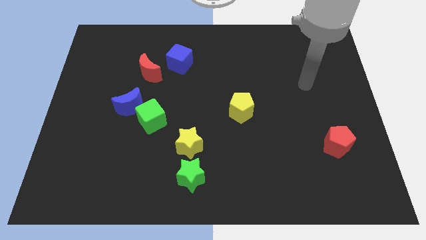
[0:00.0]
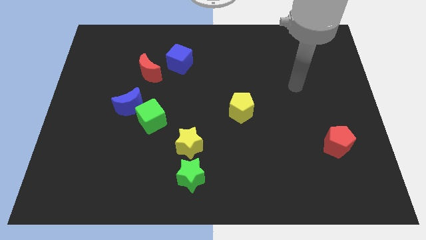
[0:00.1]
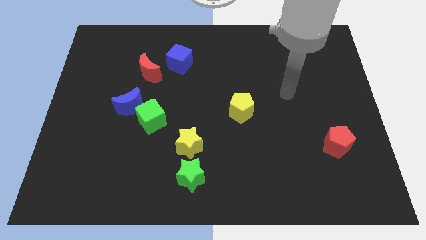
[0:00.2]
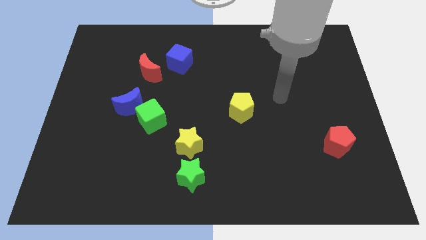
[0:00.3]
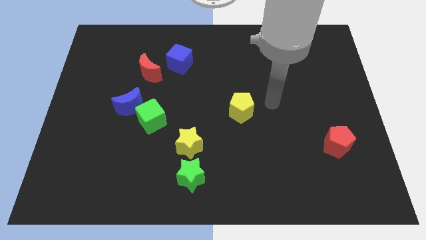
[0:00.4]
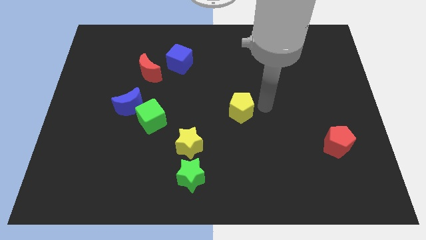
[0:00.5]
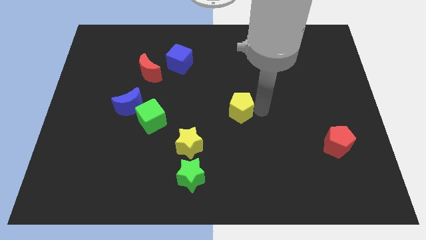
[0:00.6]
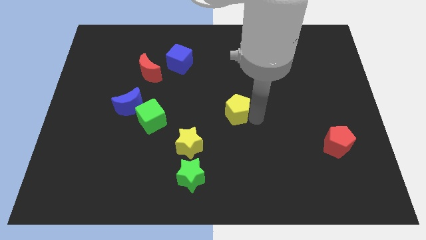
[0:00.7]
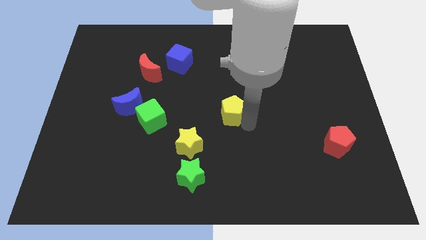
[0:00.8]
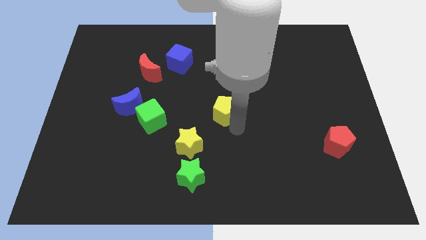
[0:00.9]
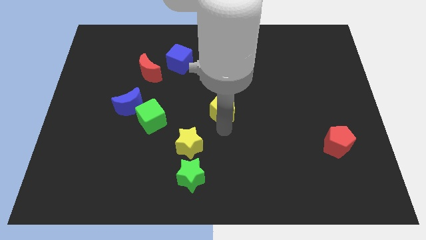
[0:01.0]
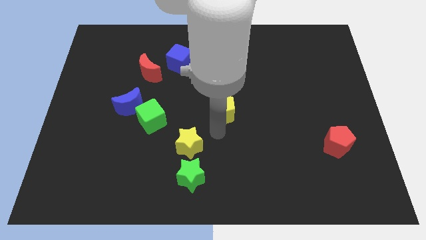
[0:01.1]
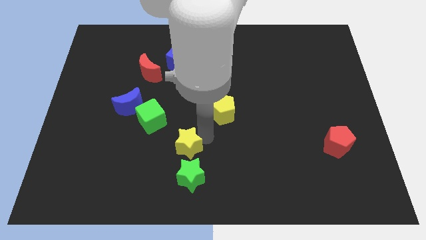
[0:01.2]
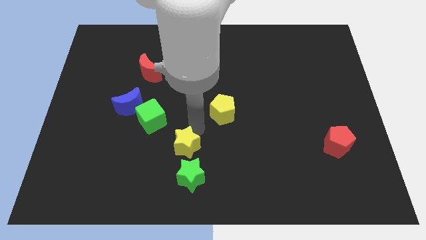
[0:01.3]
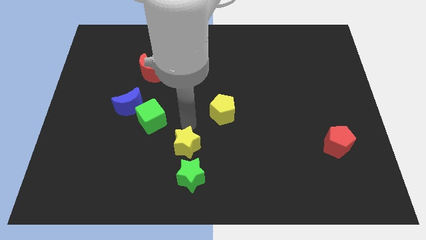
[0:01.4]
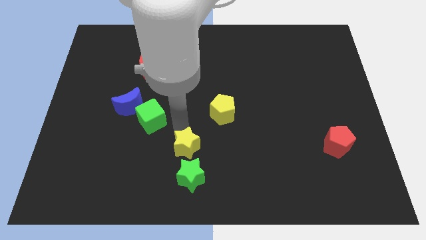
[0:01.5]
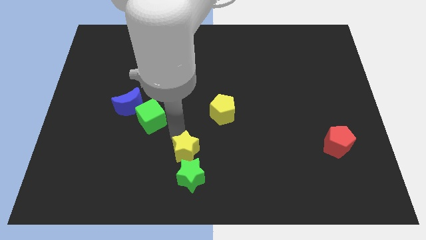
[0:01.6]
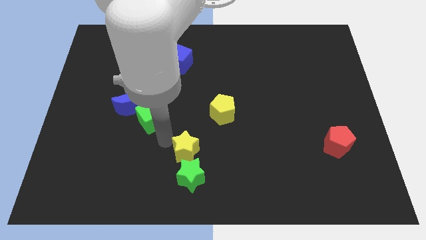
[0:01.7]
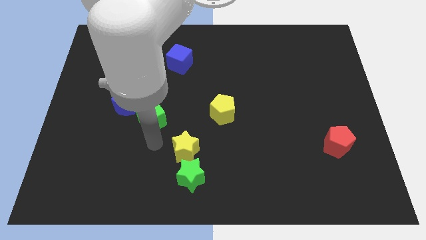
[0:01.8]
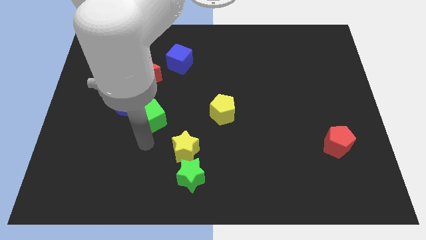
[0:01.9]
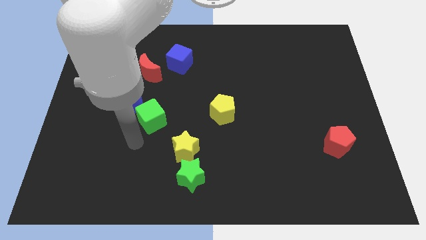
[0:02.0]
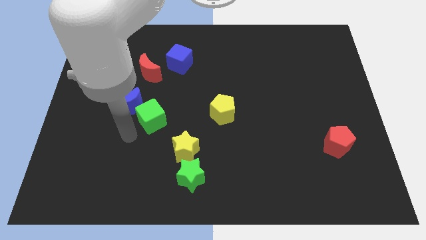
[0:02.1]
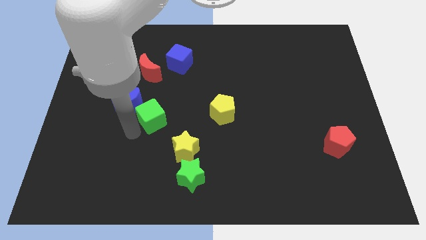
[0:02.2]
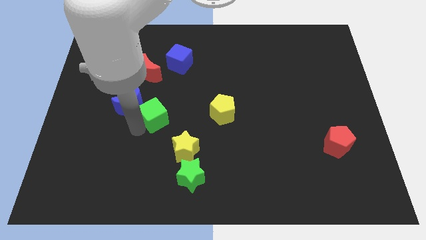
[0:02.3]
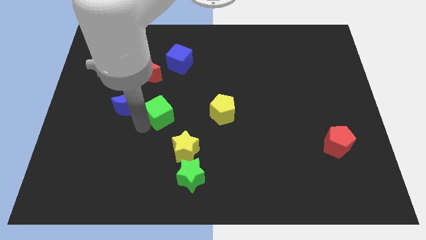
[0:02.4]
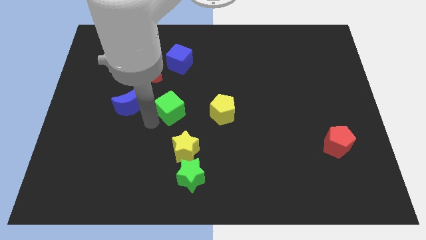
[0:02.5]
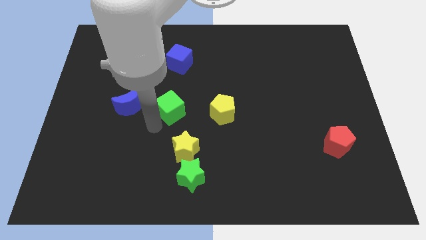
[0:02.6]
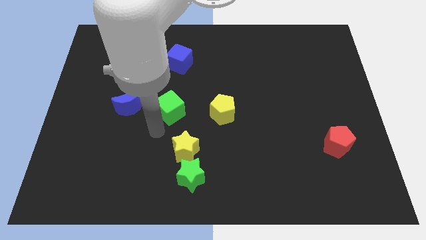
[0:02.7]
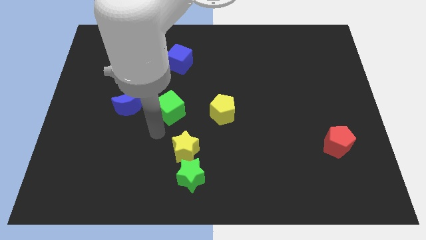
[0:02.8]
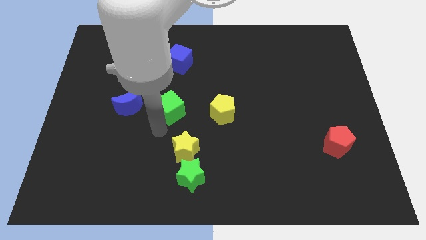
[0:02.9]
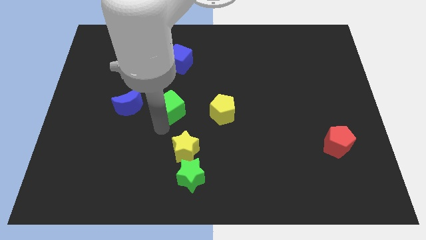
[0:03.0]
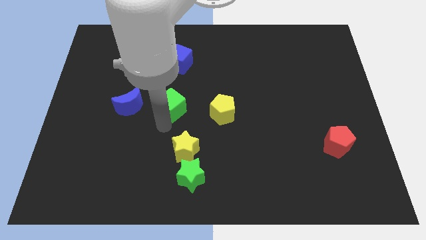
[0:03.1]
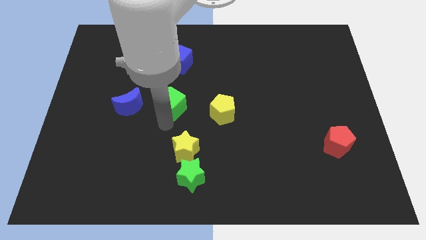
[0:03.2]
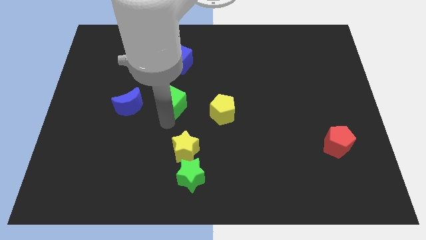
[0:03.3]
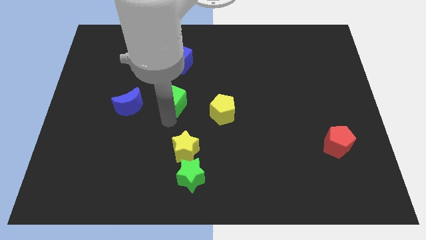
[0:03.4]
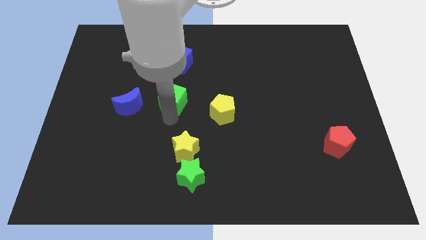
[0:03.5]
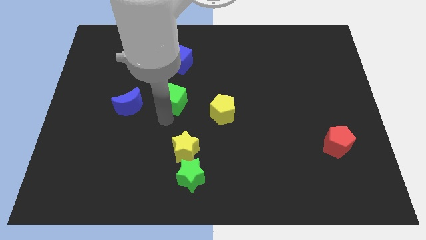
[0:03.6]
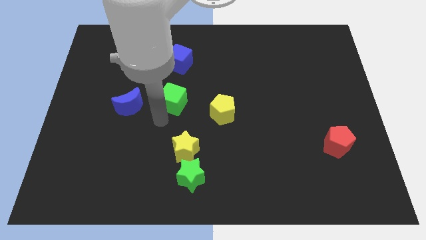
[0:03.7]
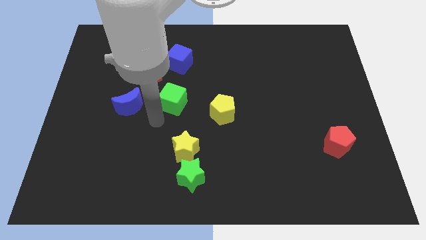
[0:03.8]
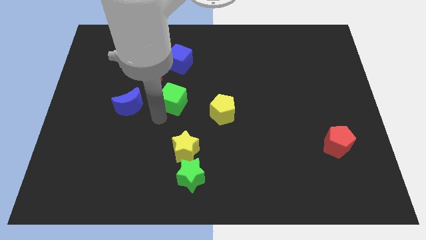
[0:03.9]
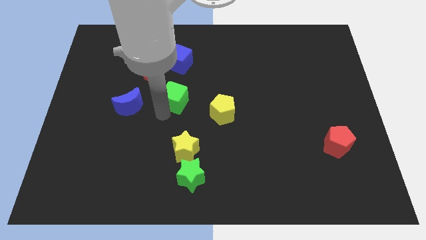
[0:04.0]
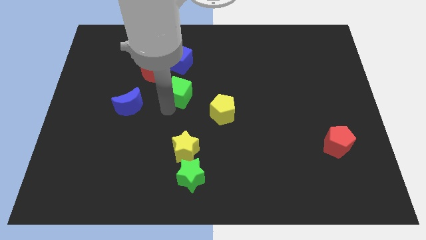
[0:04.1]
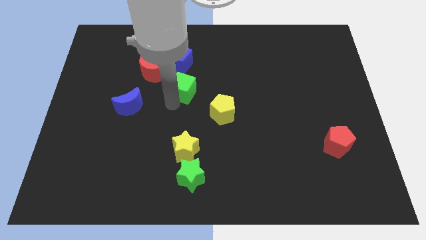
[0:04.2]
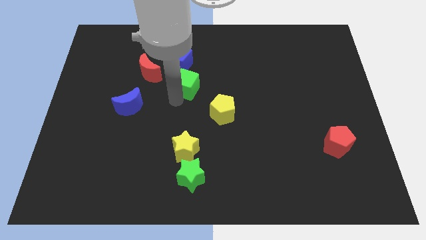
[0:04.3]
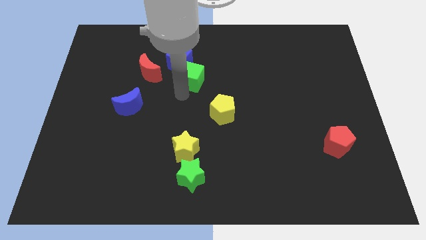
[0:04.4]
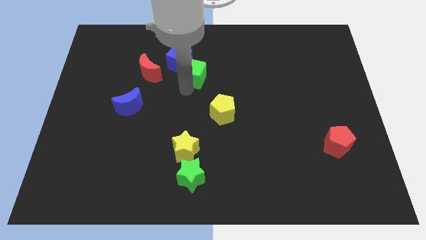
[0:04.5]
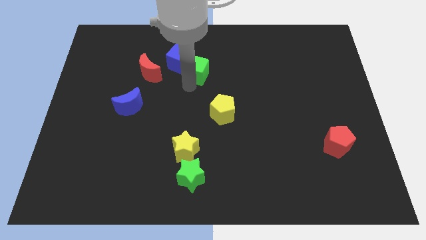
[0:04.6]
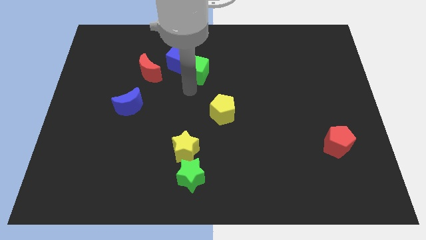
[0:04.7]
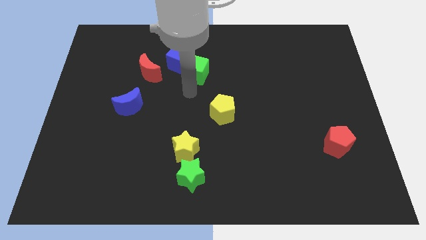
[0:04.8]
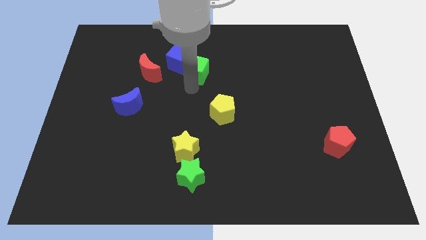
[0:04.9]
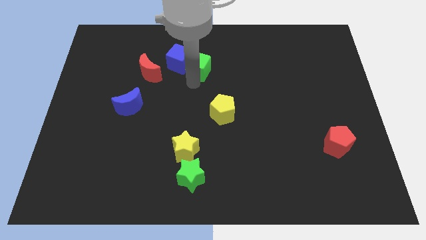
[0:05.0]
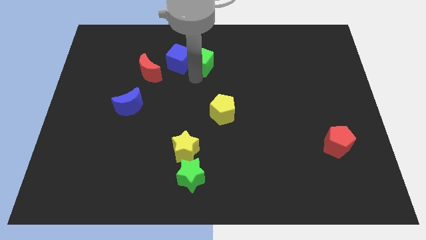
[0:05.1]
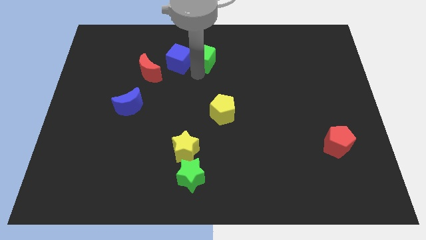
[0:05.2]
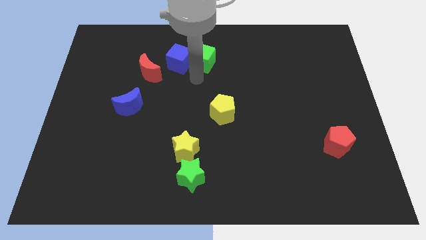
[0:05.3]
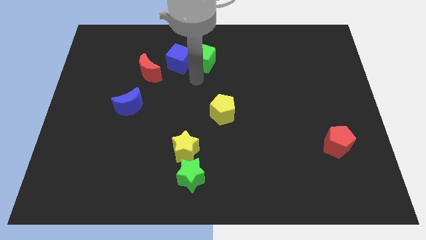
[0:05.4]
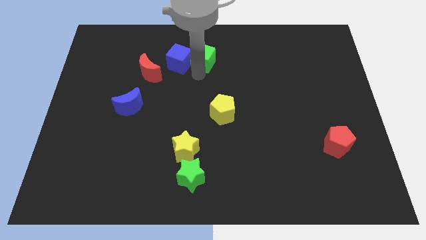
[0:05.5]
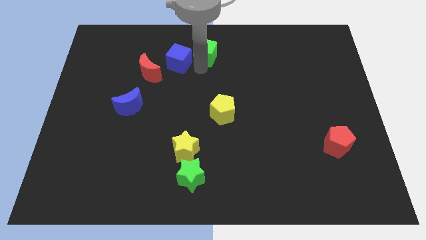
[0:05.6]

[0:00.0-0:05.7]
put the green cube to the top side

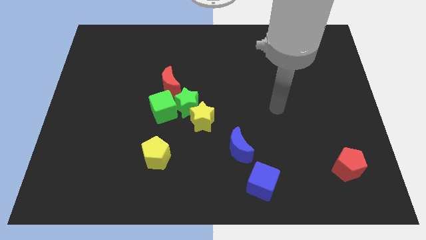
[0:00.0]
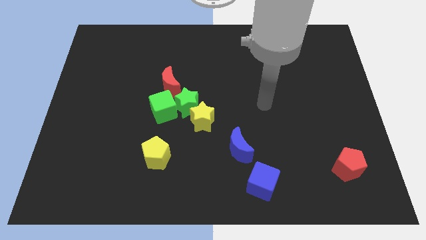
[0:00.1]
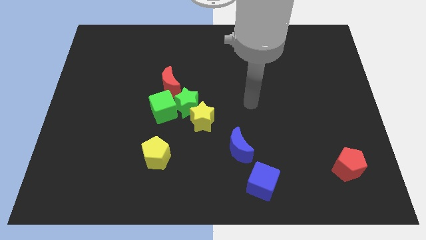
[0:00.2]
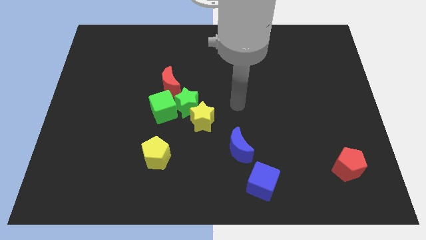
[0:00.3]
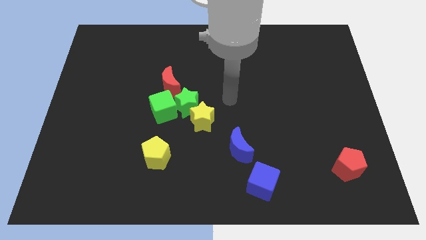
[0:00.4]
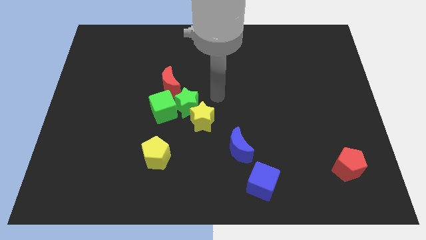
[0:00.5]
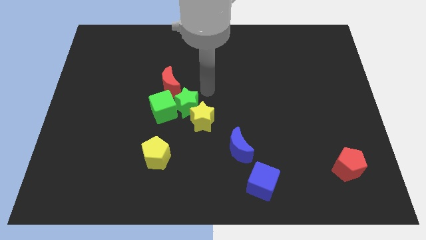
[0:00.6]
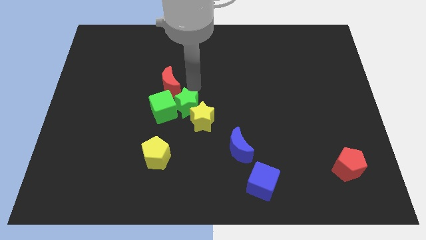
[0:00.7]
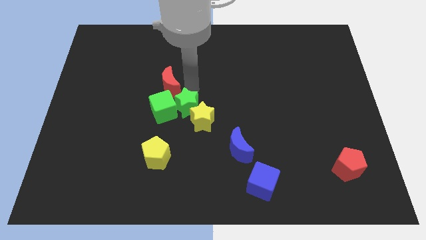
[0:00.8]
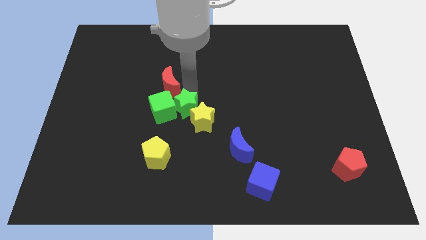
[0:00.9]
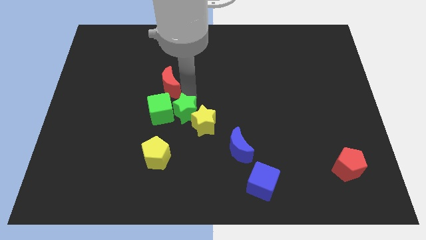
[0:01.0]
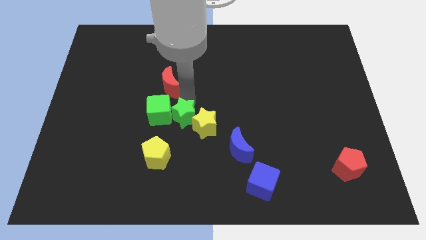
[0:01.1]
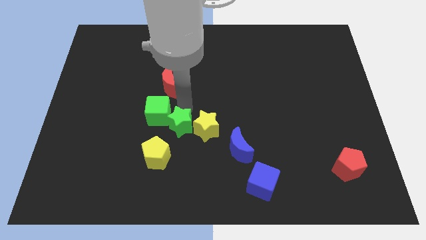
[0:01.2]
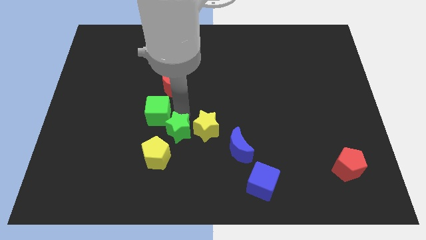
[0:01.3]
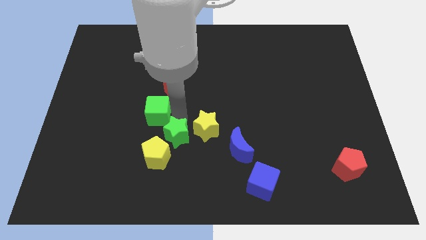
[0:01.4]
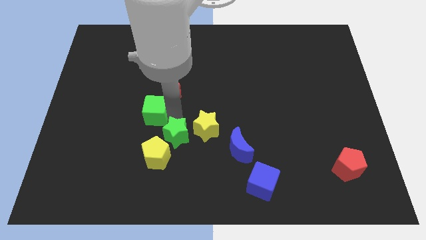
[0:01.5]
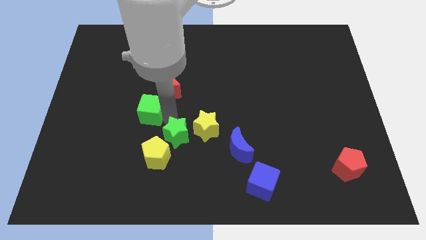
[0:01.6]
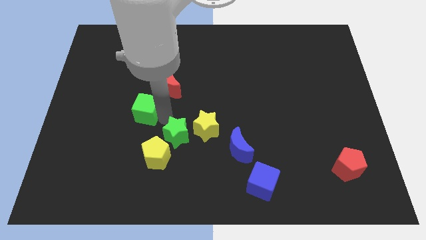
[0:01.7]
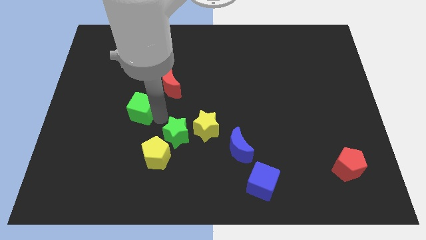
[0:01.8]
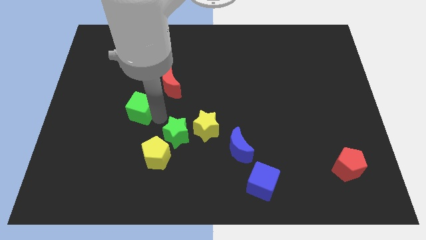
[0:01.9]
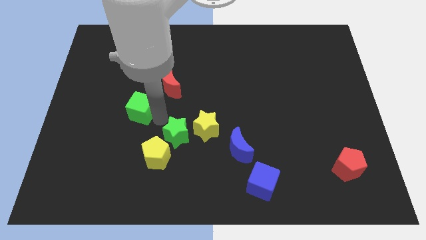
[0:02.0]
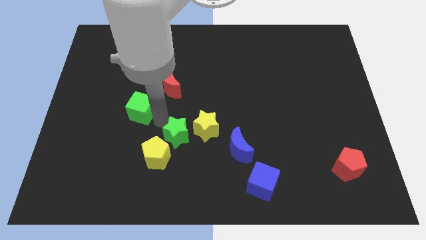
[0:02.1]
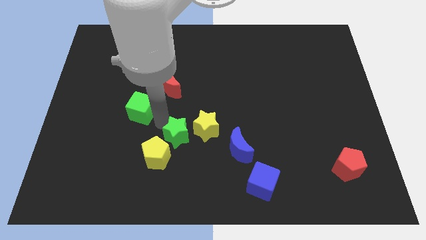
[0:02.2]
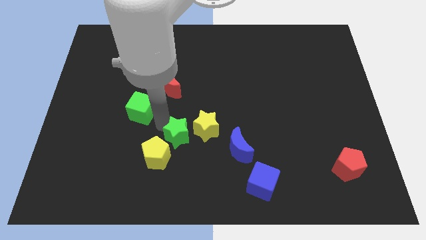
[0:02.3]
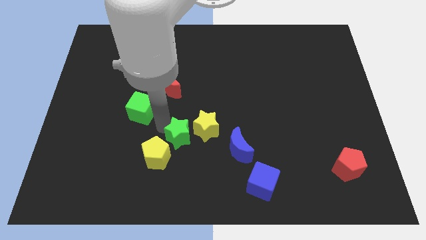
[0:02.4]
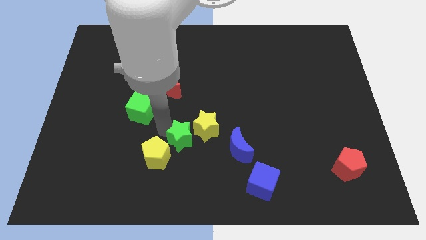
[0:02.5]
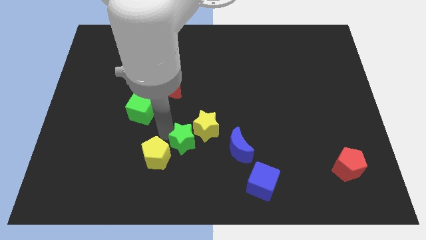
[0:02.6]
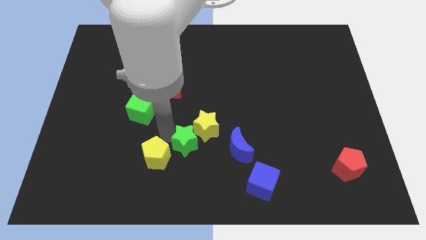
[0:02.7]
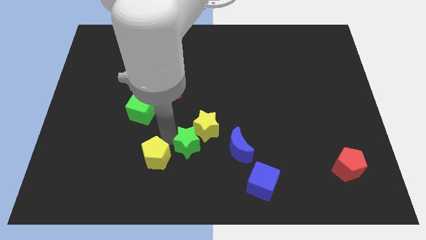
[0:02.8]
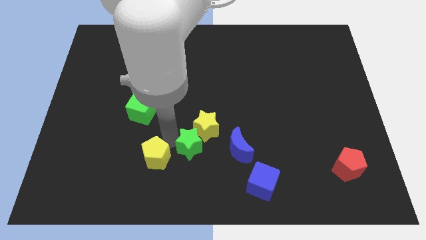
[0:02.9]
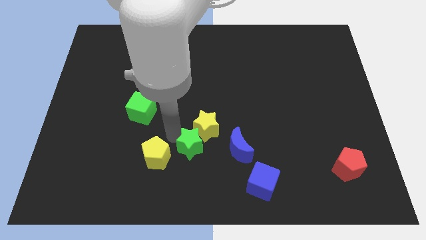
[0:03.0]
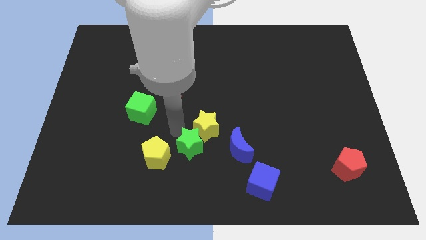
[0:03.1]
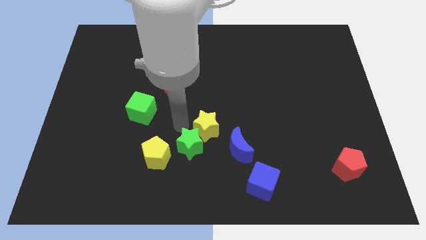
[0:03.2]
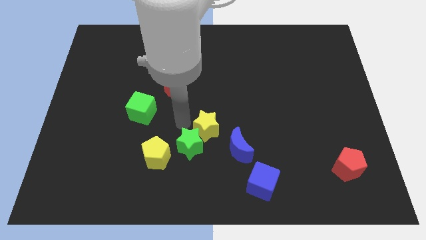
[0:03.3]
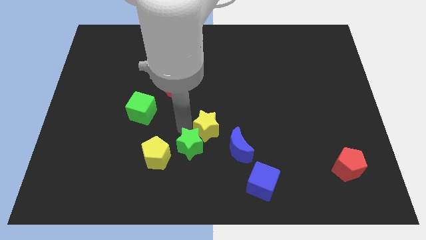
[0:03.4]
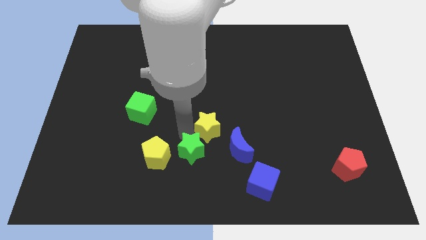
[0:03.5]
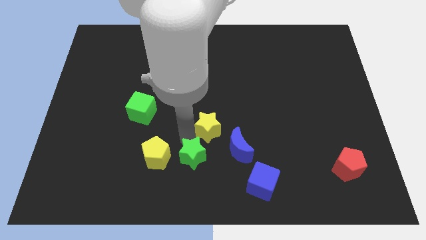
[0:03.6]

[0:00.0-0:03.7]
push the green star to the bottom side
